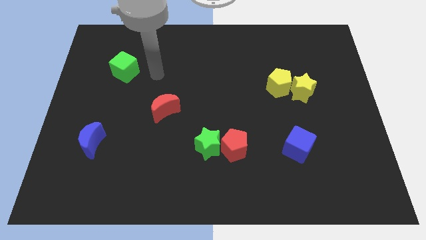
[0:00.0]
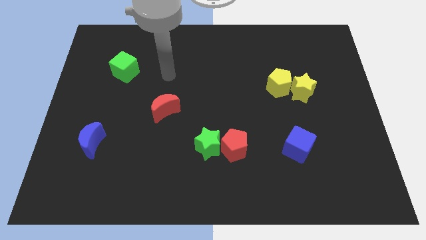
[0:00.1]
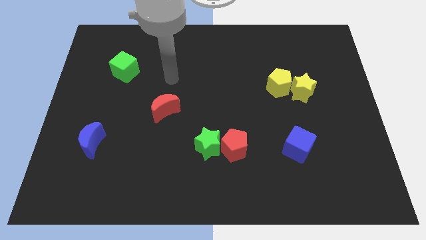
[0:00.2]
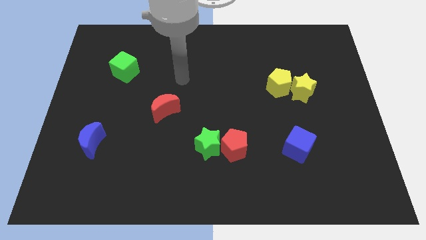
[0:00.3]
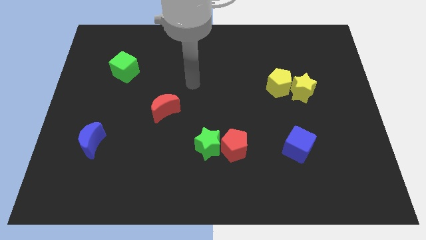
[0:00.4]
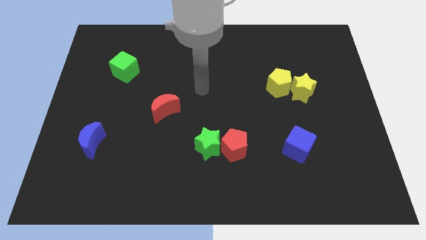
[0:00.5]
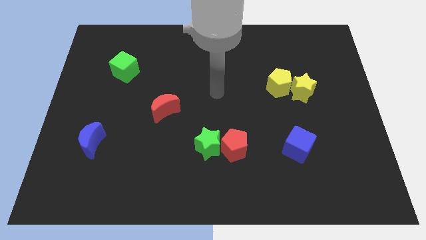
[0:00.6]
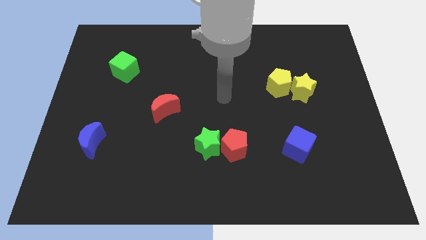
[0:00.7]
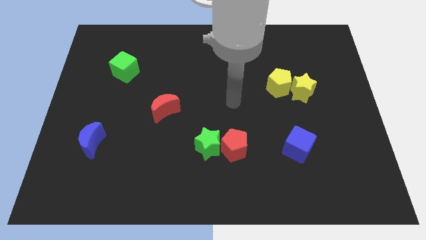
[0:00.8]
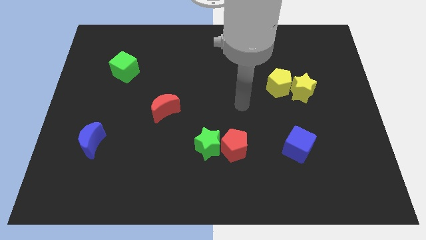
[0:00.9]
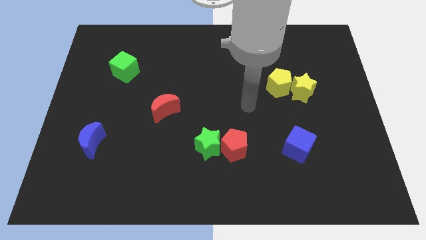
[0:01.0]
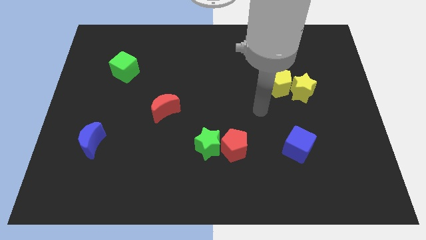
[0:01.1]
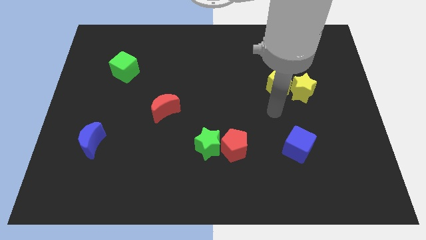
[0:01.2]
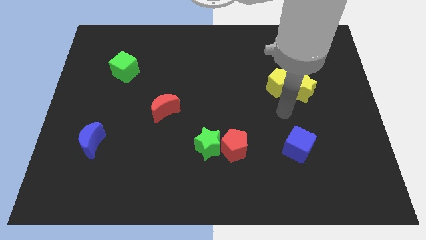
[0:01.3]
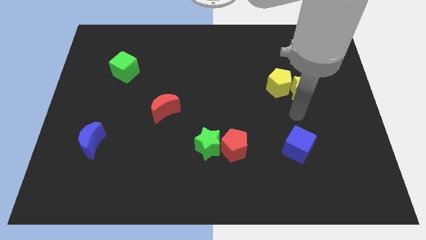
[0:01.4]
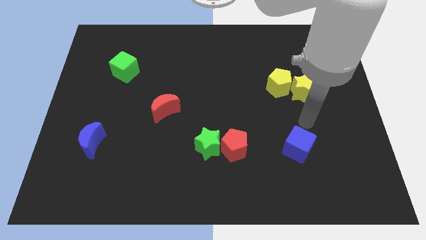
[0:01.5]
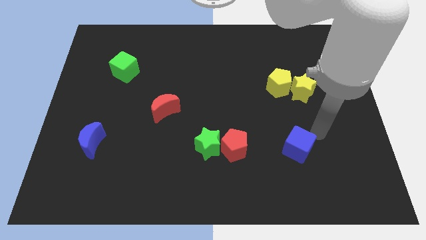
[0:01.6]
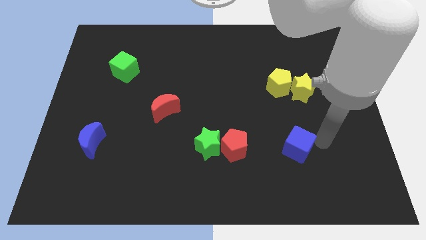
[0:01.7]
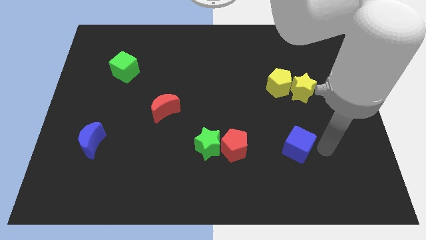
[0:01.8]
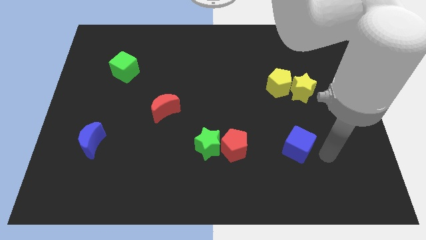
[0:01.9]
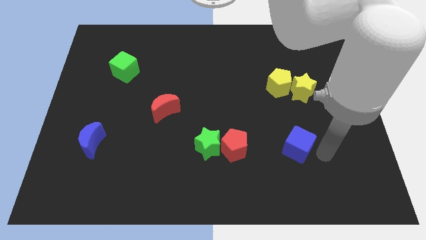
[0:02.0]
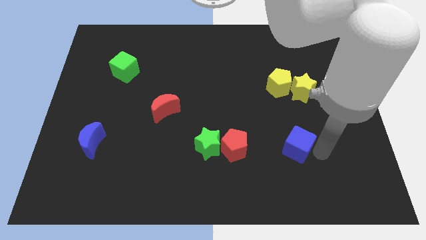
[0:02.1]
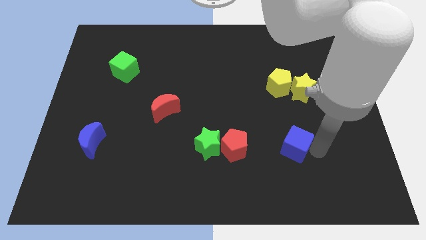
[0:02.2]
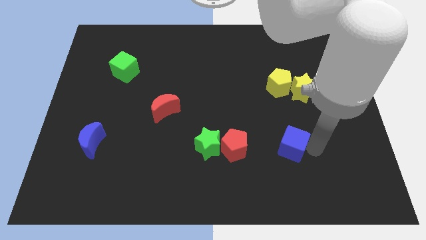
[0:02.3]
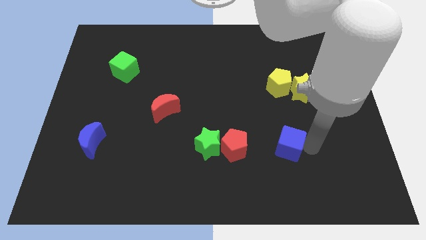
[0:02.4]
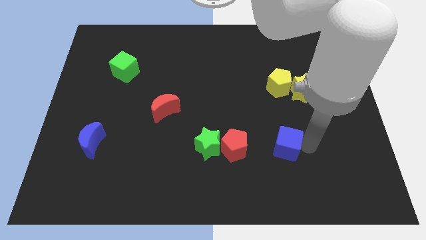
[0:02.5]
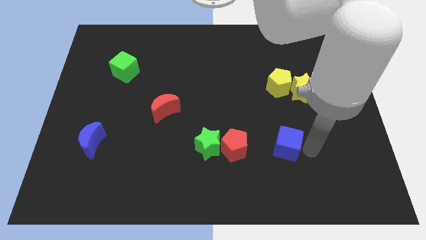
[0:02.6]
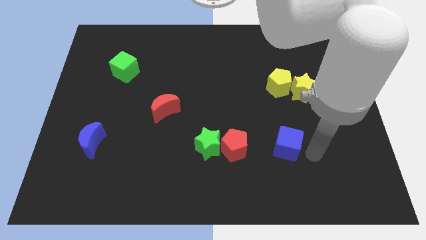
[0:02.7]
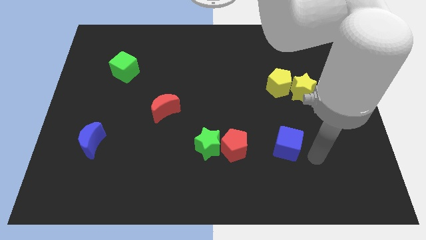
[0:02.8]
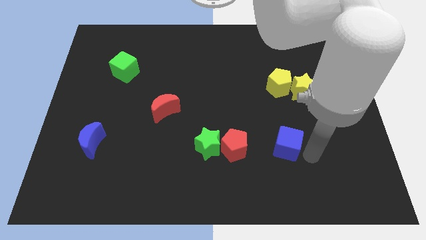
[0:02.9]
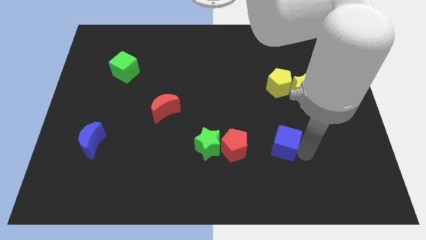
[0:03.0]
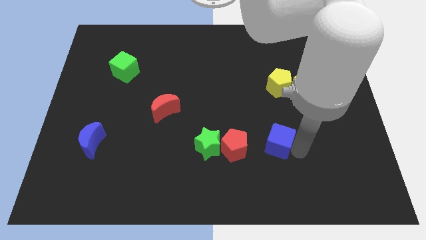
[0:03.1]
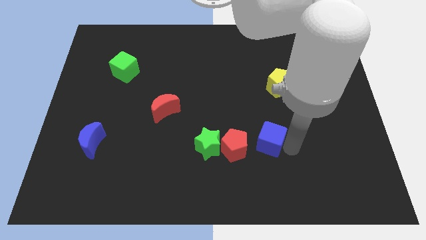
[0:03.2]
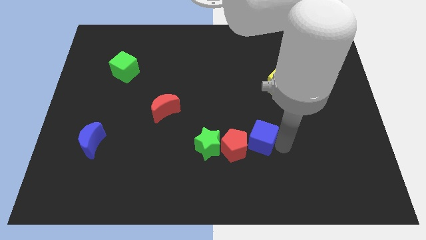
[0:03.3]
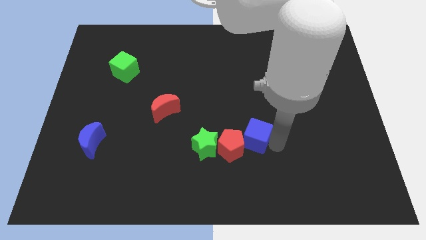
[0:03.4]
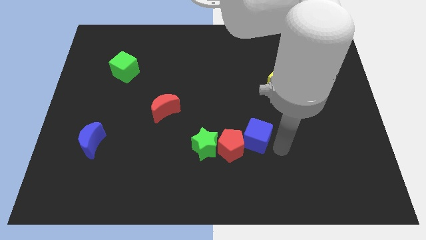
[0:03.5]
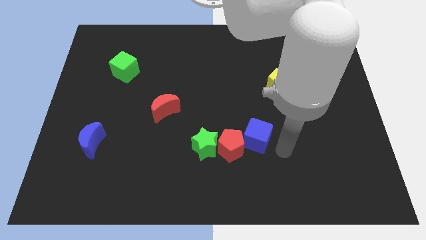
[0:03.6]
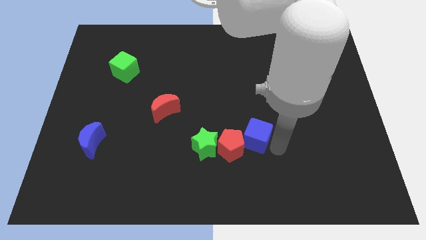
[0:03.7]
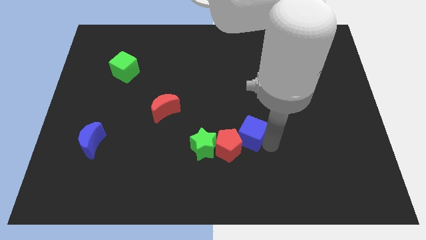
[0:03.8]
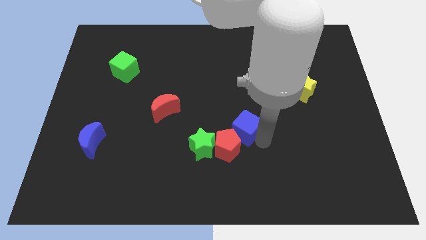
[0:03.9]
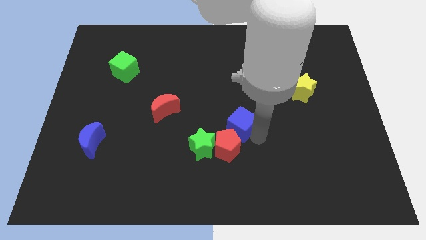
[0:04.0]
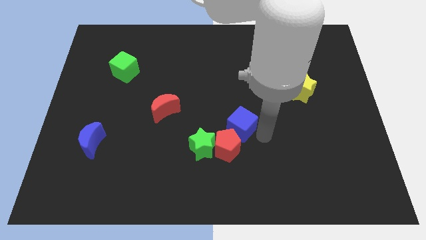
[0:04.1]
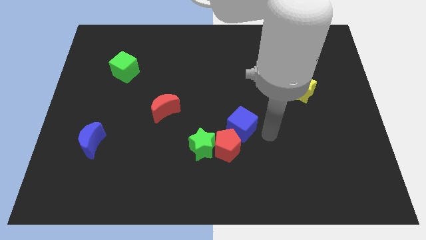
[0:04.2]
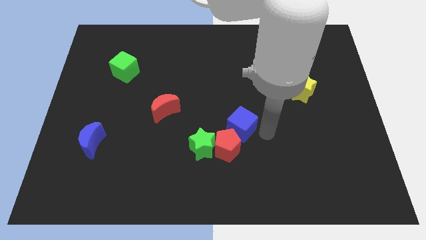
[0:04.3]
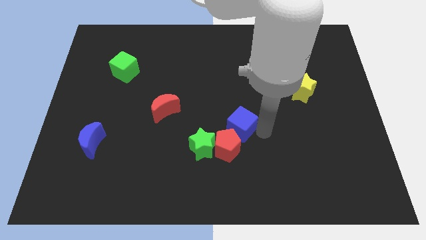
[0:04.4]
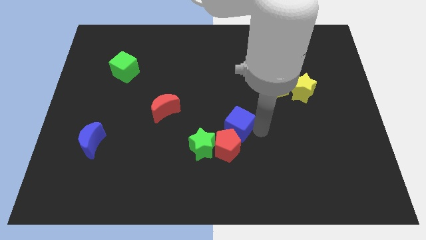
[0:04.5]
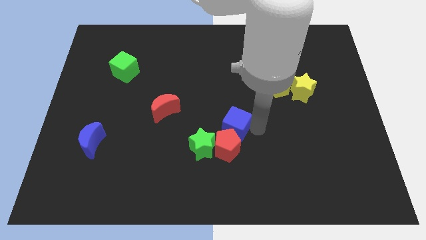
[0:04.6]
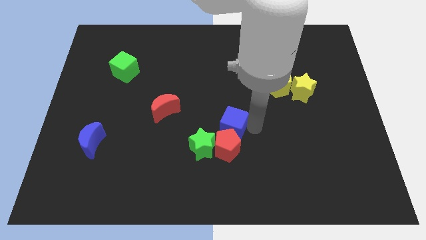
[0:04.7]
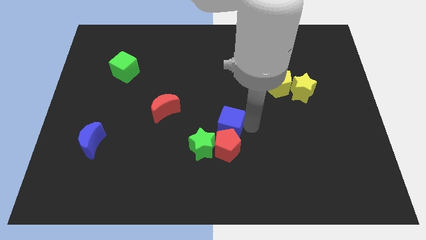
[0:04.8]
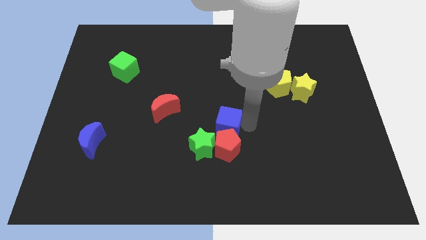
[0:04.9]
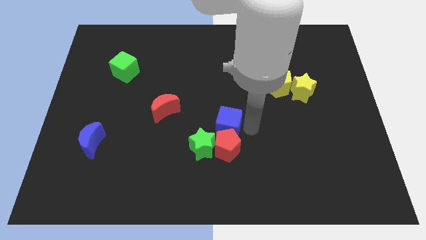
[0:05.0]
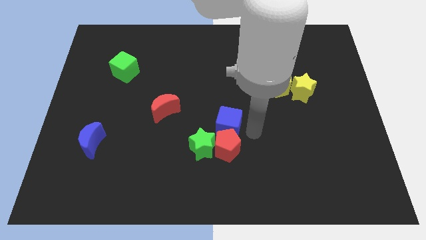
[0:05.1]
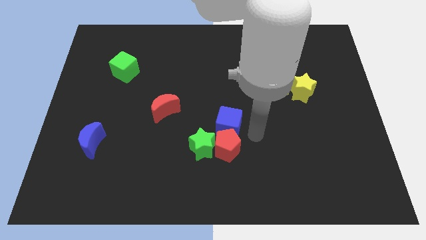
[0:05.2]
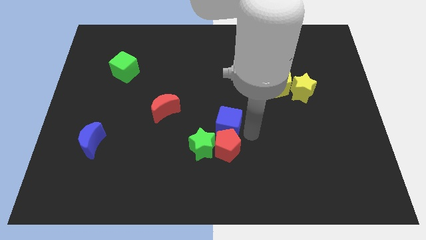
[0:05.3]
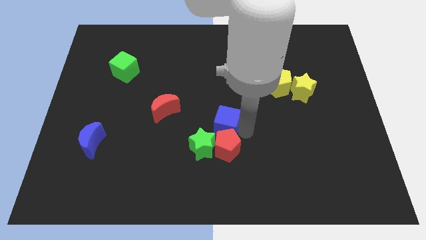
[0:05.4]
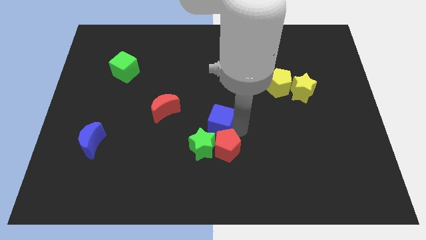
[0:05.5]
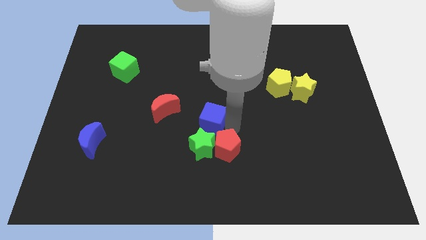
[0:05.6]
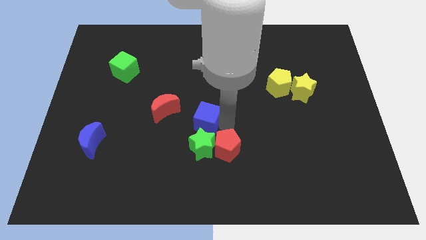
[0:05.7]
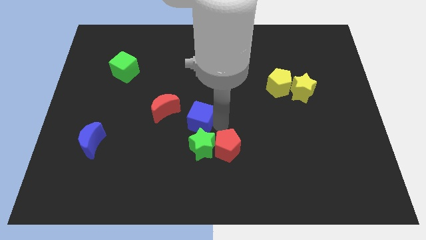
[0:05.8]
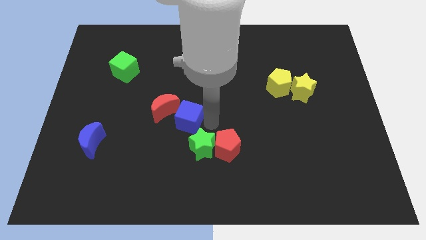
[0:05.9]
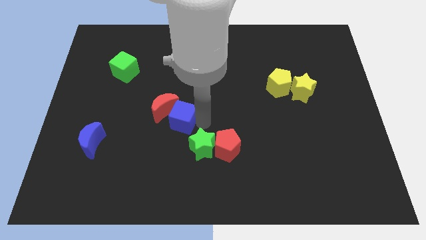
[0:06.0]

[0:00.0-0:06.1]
slide the blue cube to the red moon

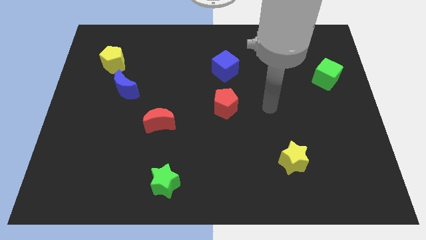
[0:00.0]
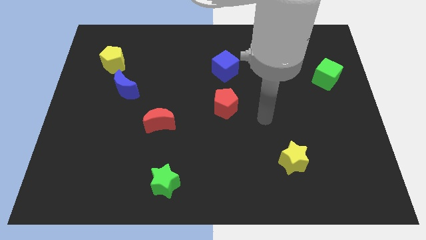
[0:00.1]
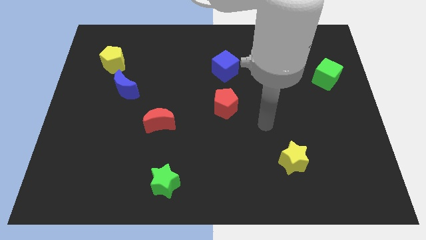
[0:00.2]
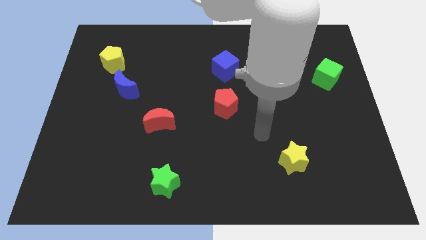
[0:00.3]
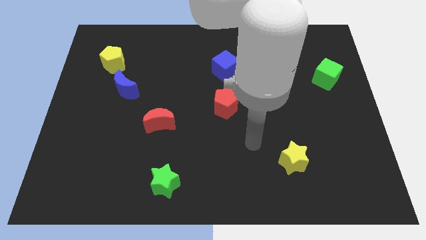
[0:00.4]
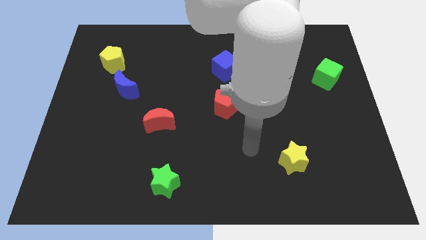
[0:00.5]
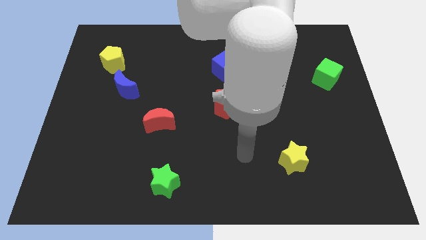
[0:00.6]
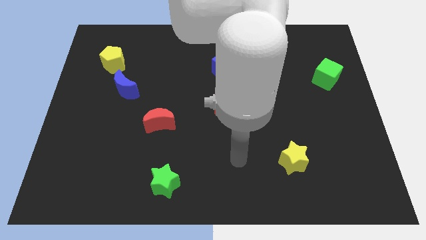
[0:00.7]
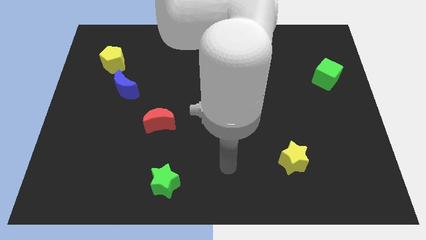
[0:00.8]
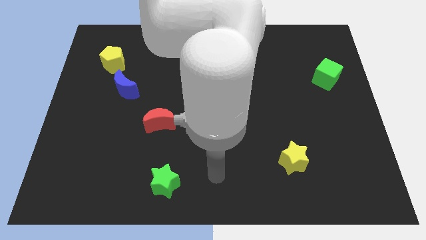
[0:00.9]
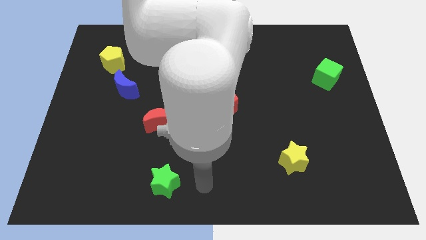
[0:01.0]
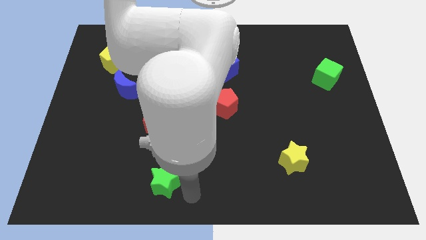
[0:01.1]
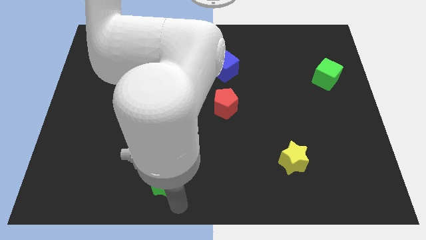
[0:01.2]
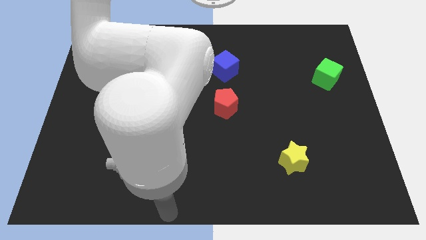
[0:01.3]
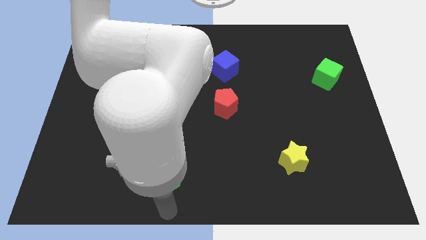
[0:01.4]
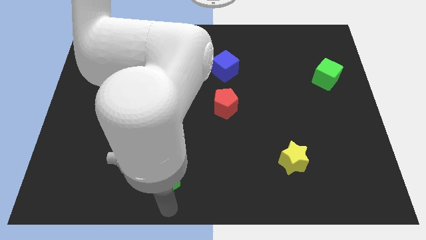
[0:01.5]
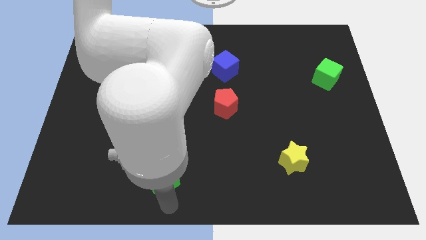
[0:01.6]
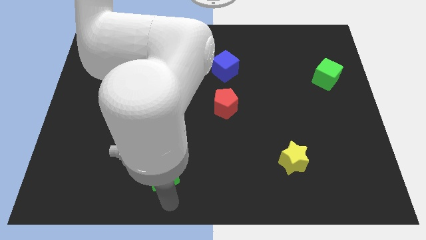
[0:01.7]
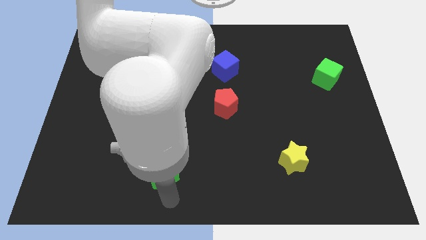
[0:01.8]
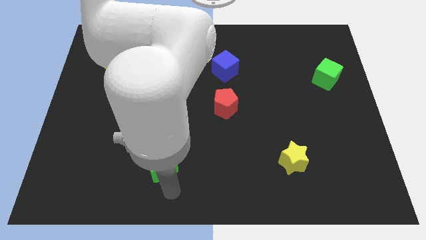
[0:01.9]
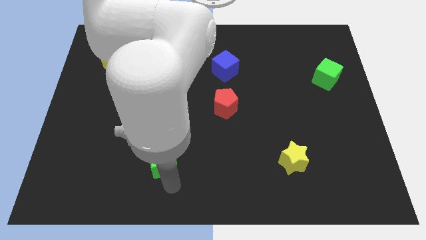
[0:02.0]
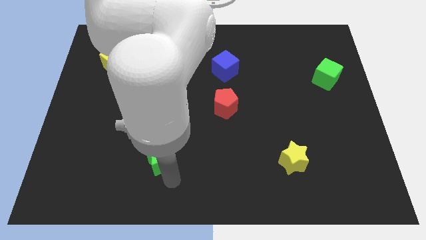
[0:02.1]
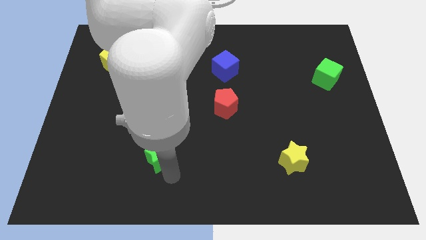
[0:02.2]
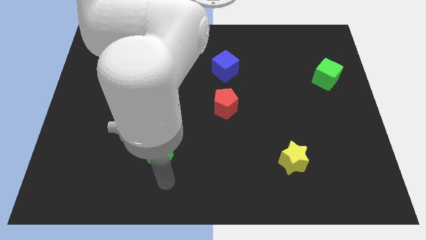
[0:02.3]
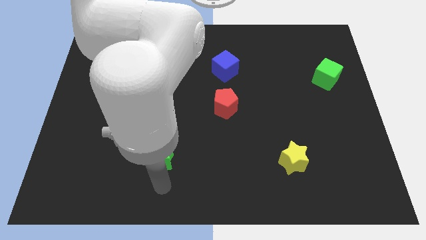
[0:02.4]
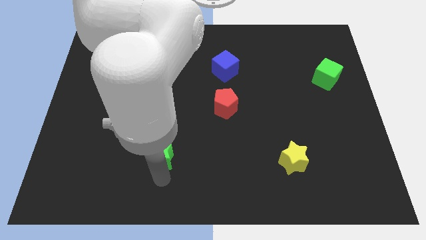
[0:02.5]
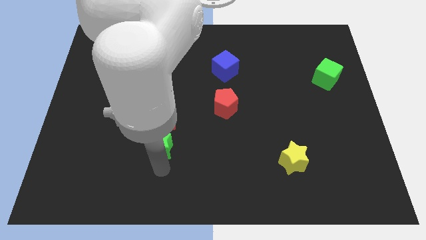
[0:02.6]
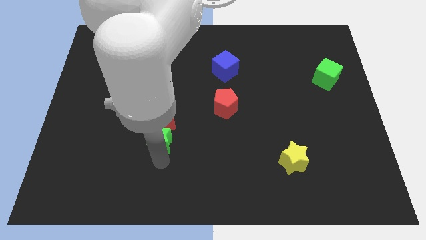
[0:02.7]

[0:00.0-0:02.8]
move the green star close to the red moon
